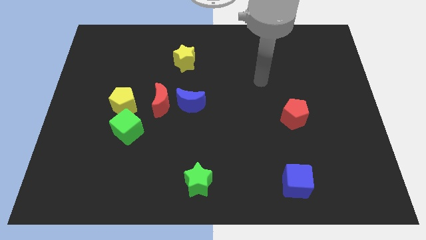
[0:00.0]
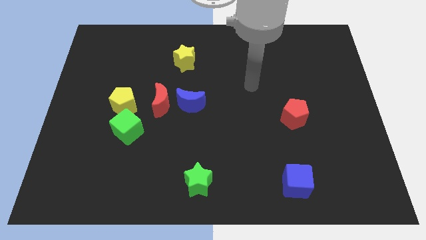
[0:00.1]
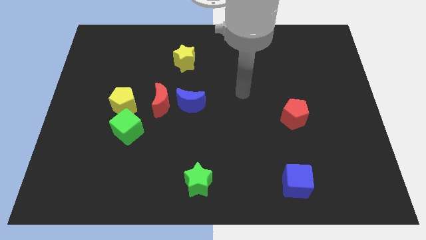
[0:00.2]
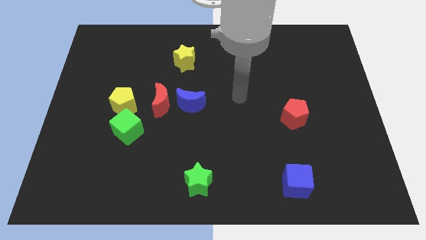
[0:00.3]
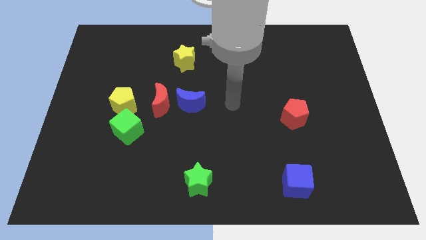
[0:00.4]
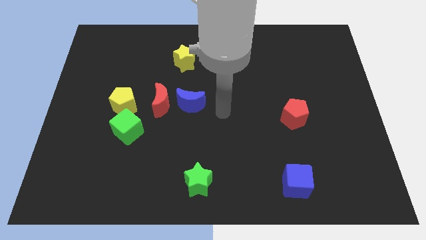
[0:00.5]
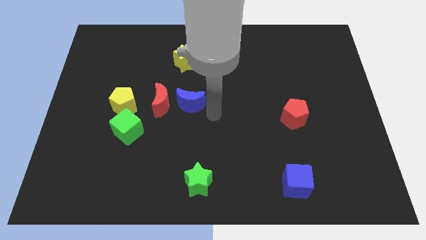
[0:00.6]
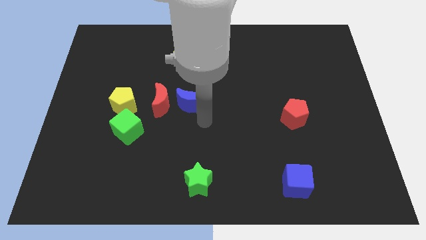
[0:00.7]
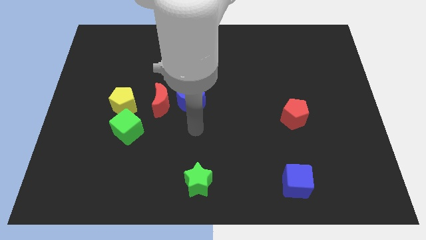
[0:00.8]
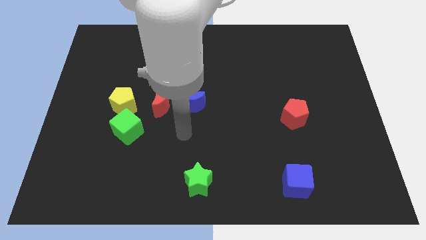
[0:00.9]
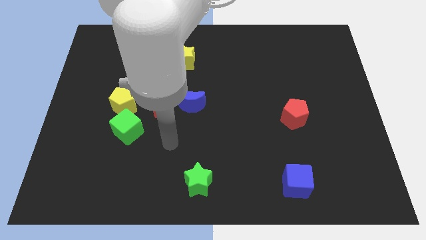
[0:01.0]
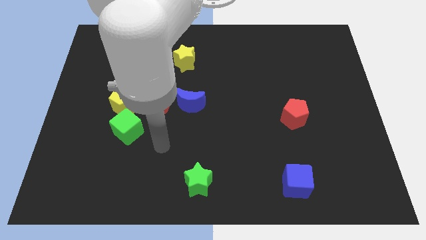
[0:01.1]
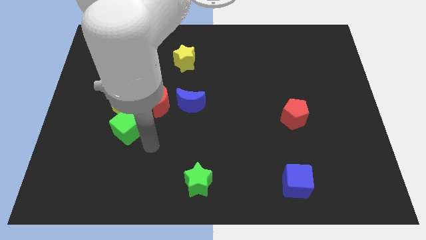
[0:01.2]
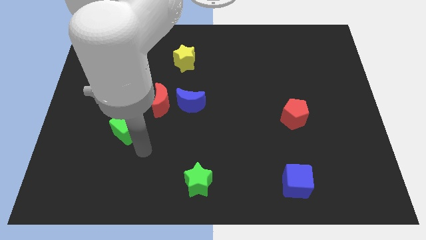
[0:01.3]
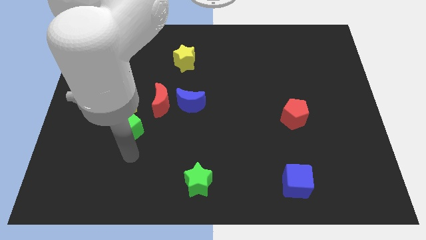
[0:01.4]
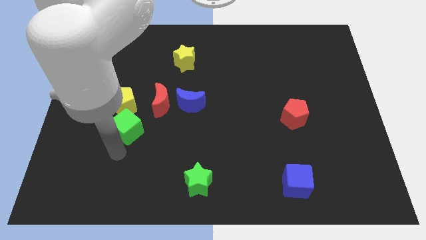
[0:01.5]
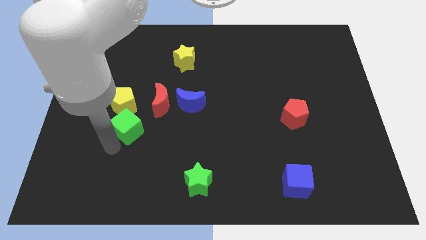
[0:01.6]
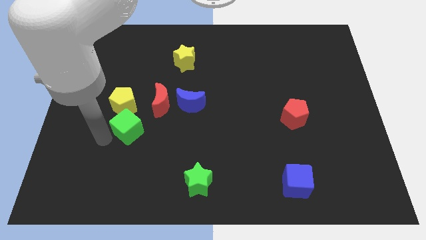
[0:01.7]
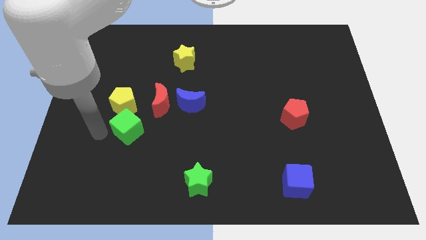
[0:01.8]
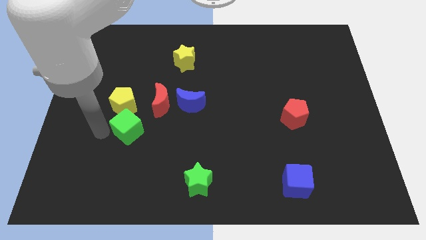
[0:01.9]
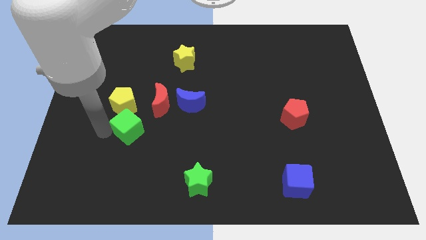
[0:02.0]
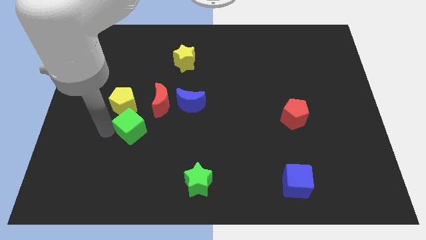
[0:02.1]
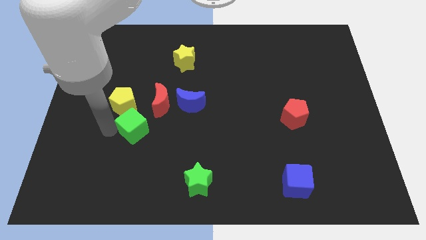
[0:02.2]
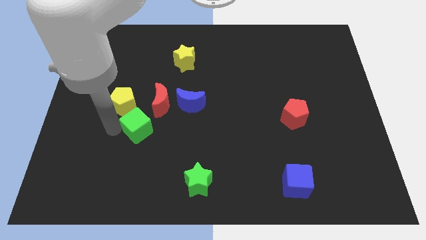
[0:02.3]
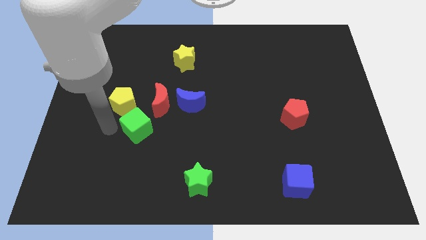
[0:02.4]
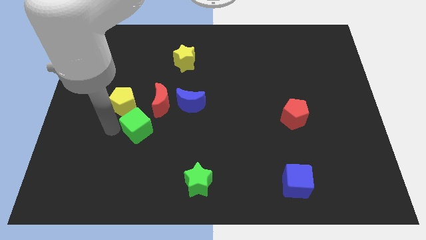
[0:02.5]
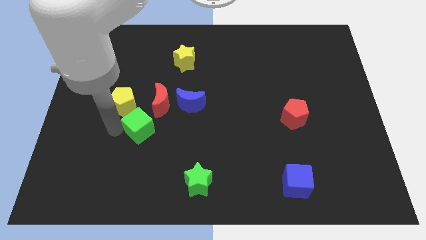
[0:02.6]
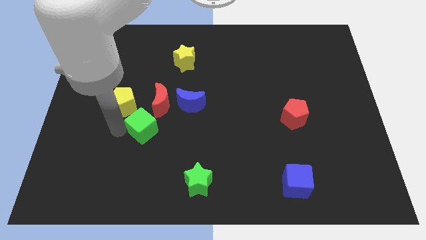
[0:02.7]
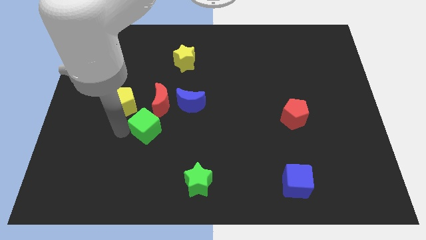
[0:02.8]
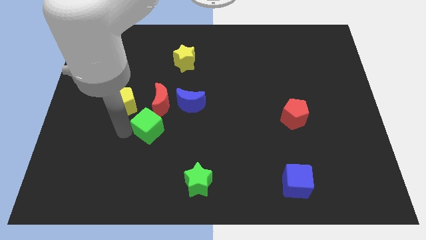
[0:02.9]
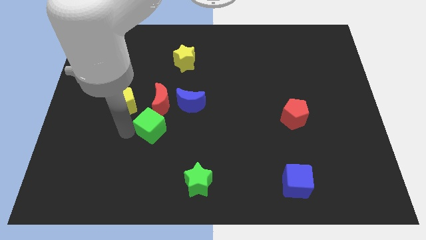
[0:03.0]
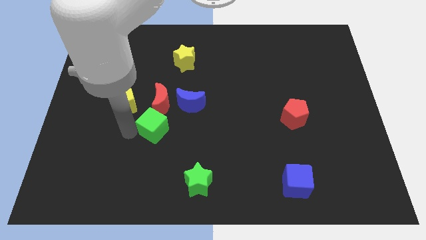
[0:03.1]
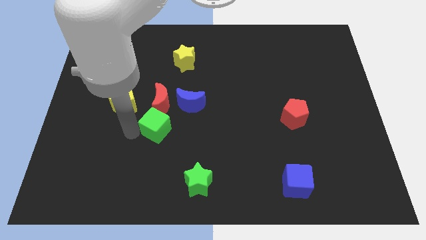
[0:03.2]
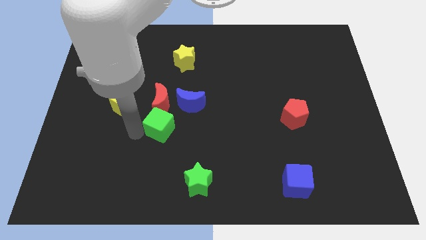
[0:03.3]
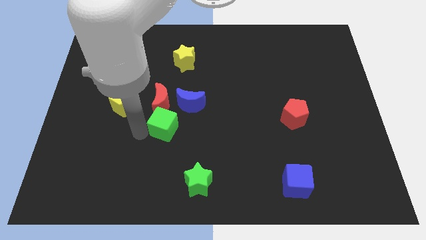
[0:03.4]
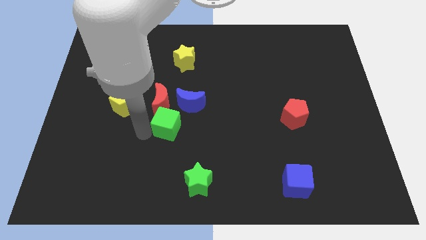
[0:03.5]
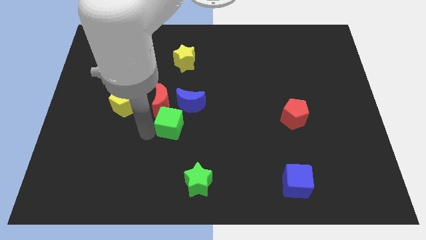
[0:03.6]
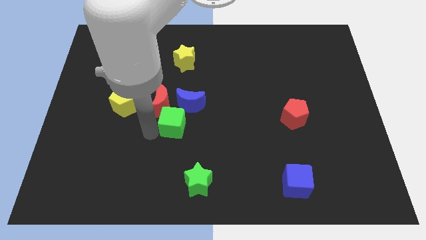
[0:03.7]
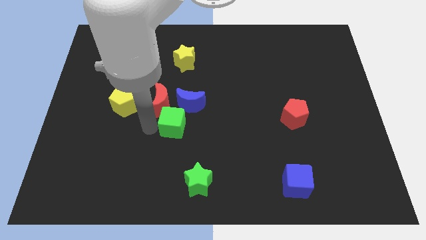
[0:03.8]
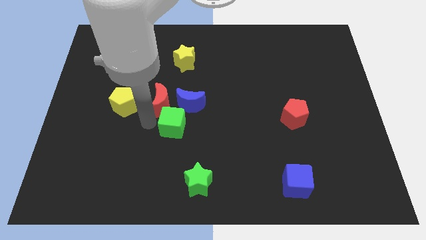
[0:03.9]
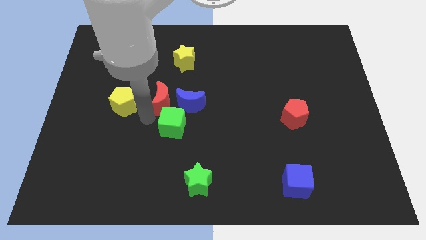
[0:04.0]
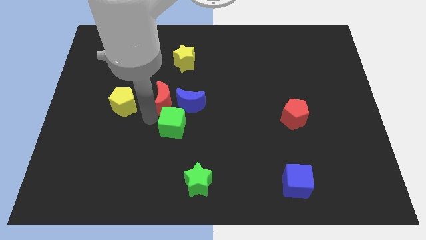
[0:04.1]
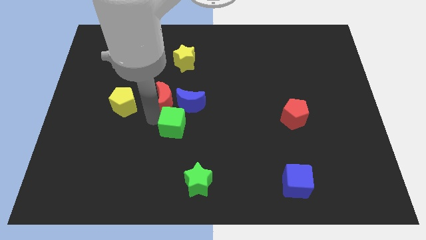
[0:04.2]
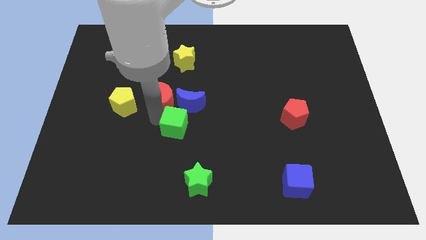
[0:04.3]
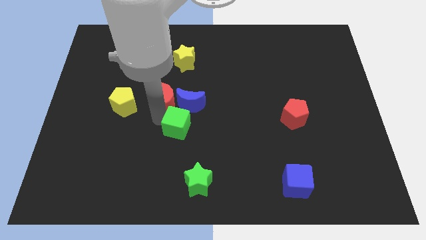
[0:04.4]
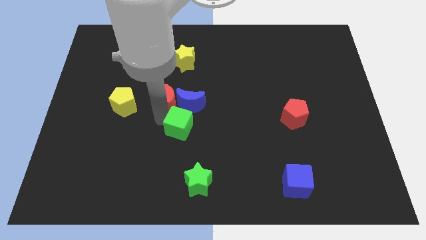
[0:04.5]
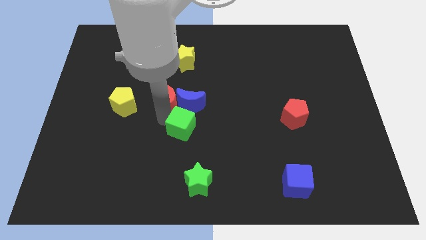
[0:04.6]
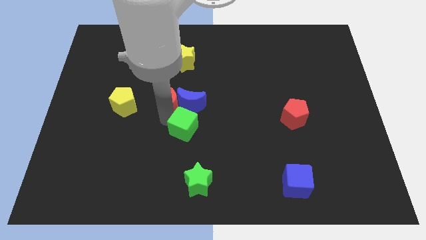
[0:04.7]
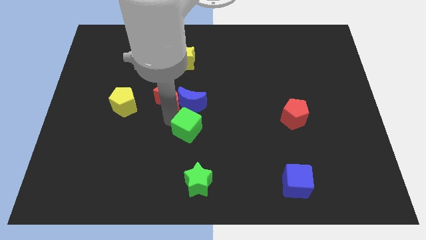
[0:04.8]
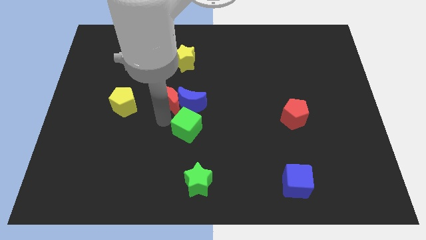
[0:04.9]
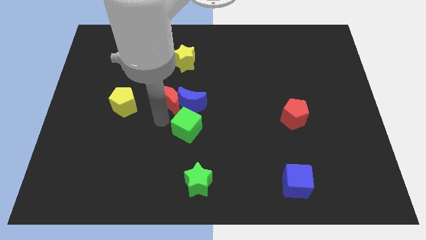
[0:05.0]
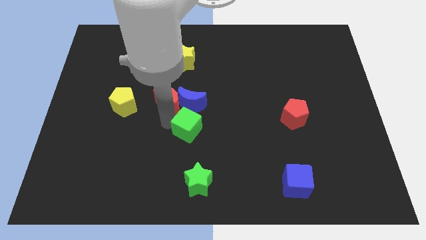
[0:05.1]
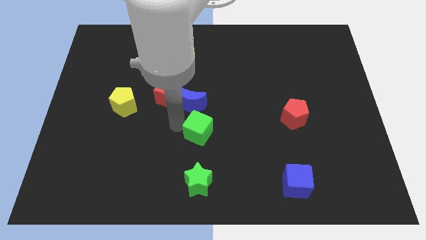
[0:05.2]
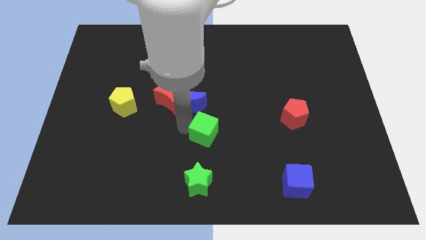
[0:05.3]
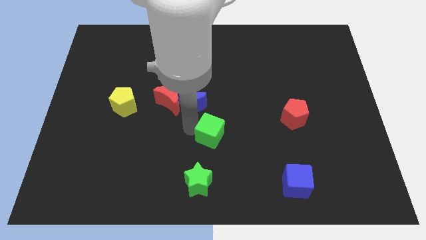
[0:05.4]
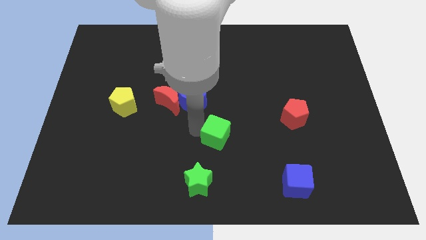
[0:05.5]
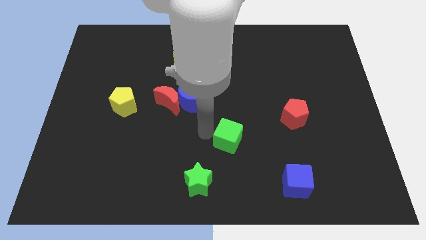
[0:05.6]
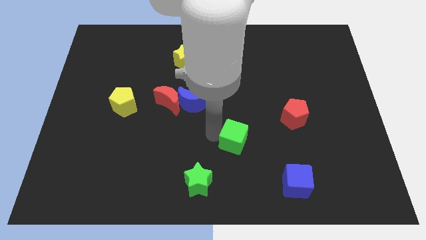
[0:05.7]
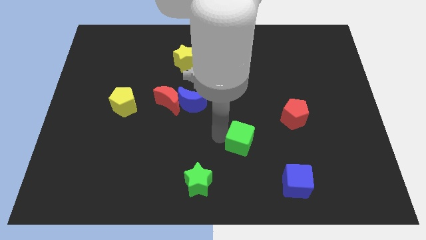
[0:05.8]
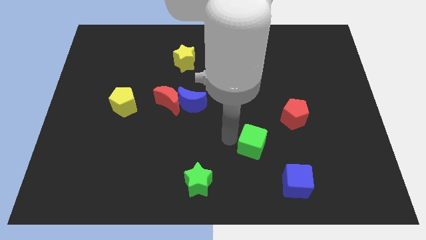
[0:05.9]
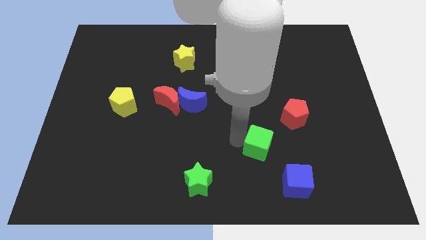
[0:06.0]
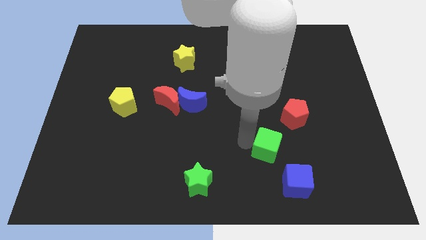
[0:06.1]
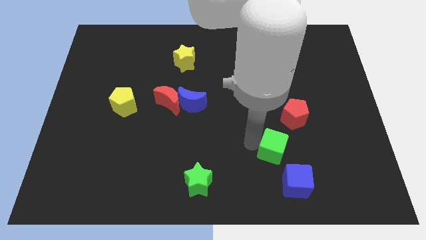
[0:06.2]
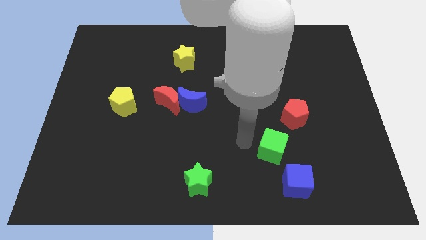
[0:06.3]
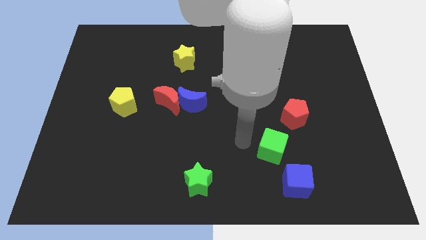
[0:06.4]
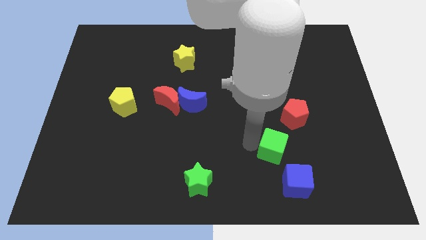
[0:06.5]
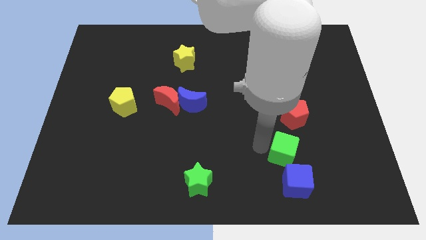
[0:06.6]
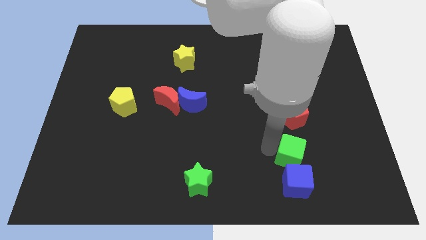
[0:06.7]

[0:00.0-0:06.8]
move the green cube diagonally up and to the right of the blue cube

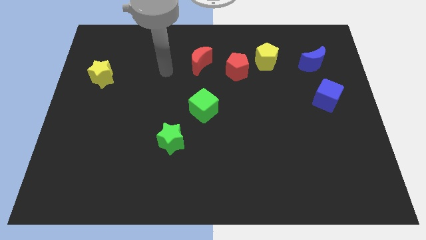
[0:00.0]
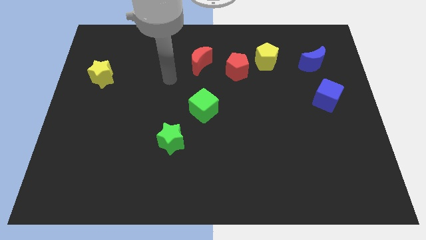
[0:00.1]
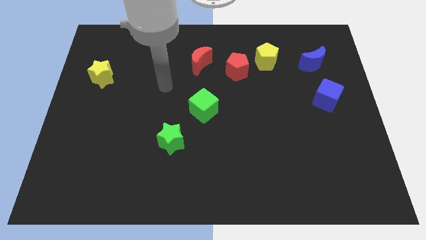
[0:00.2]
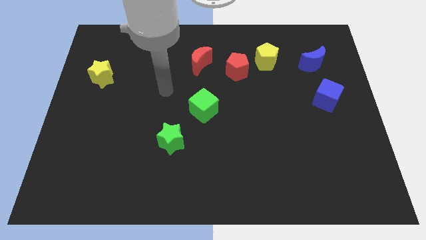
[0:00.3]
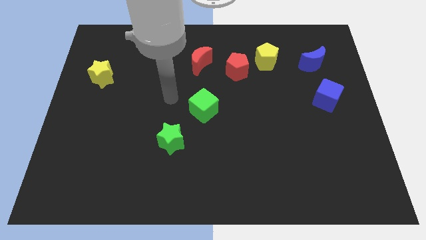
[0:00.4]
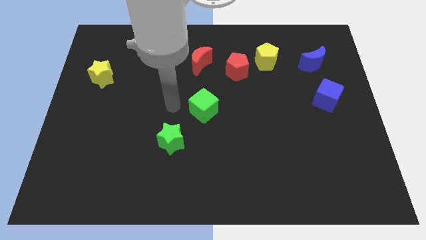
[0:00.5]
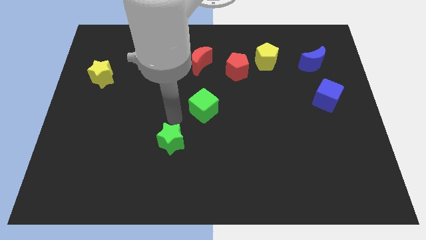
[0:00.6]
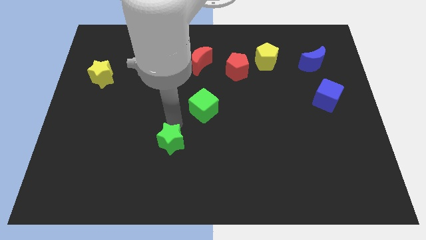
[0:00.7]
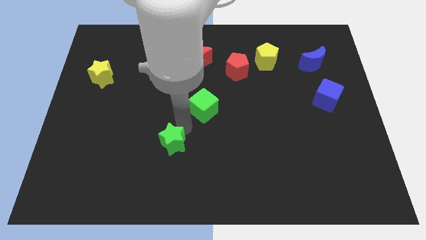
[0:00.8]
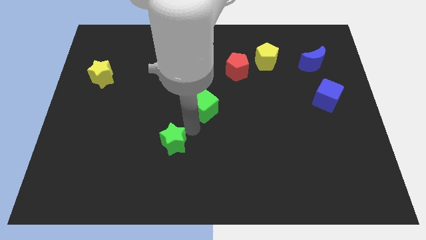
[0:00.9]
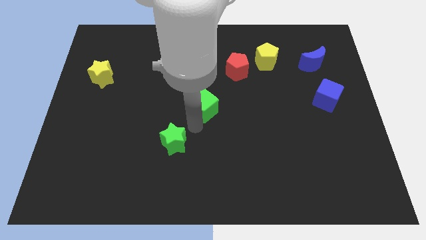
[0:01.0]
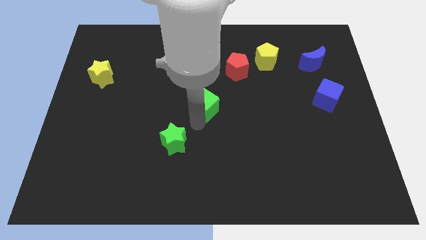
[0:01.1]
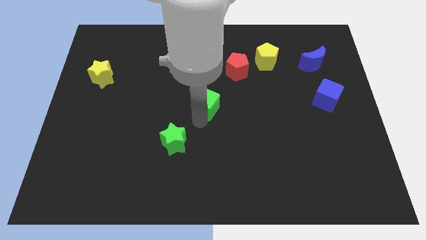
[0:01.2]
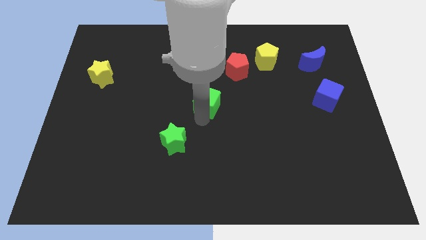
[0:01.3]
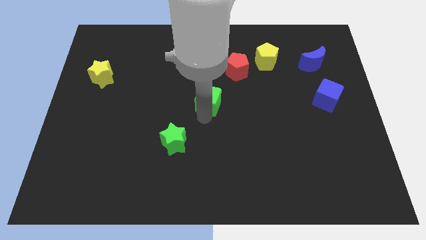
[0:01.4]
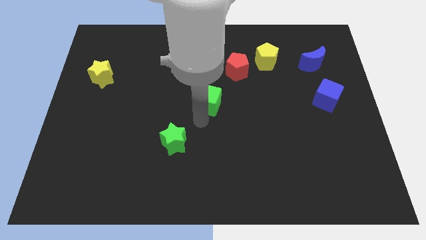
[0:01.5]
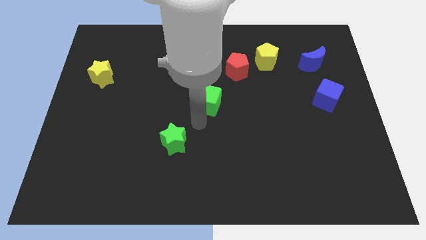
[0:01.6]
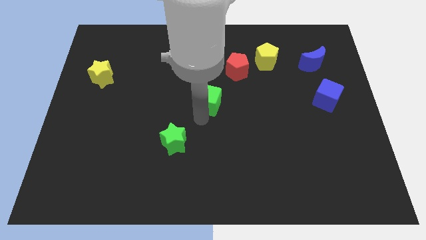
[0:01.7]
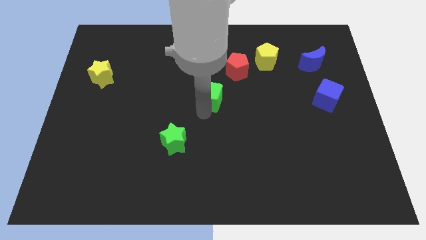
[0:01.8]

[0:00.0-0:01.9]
slide the green cube diagonally down and to the left of the red pentagon
